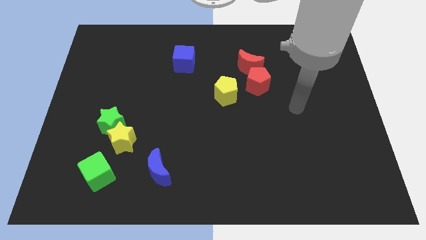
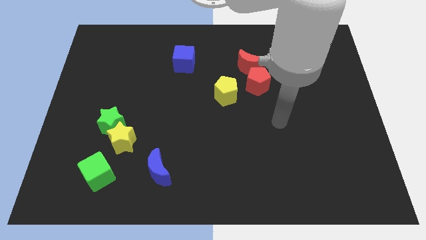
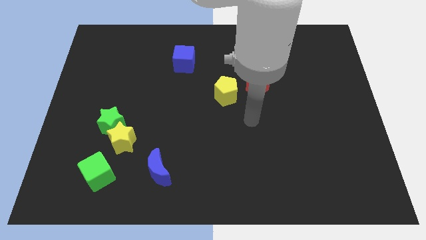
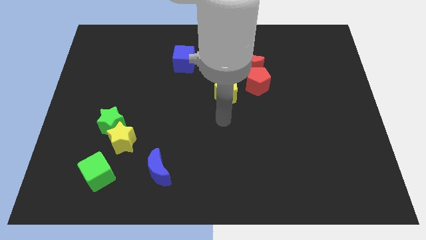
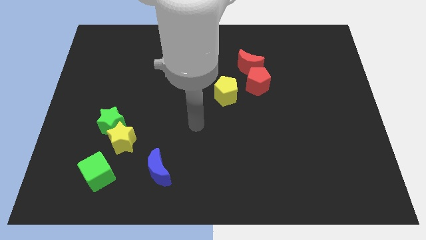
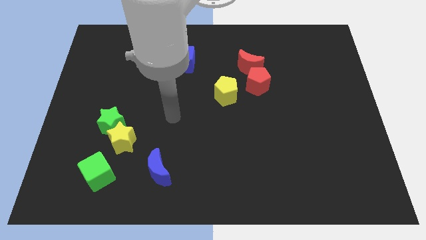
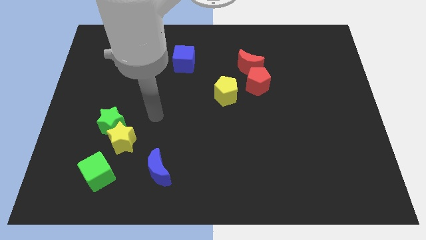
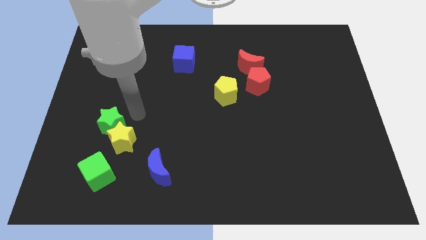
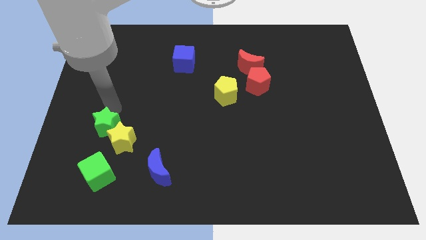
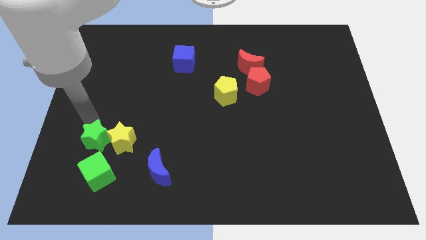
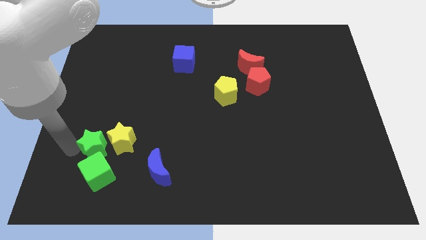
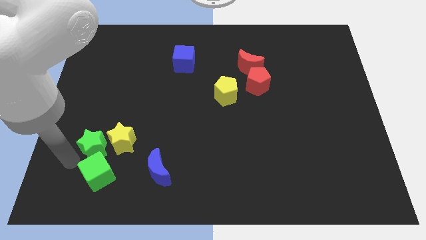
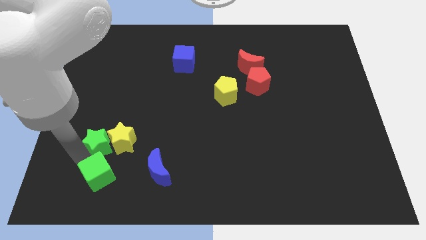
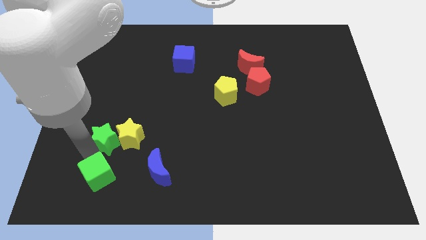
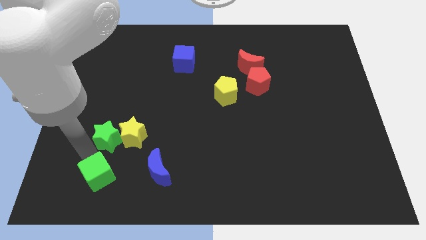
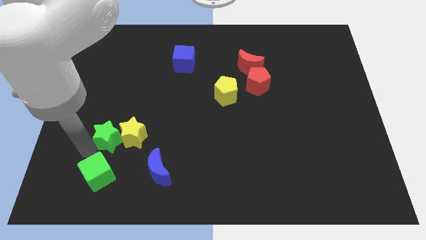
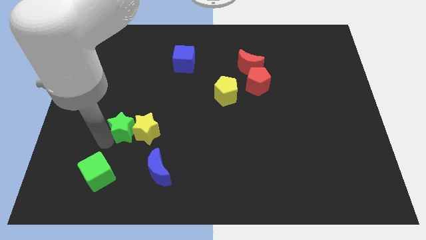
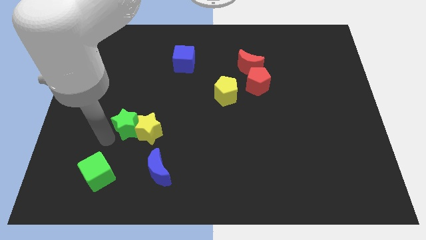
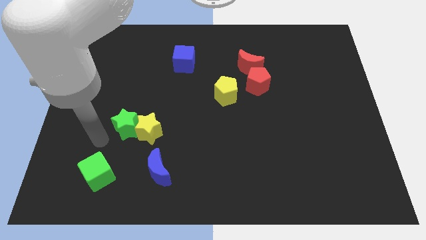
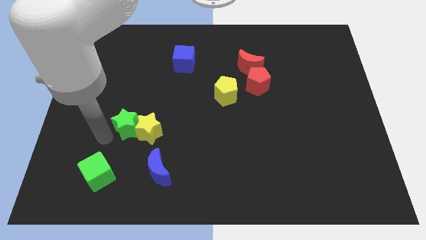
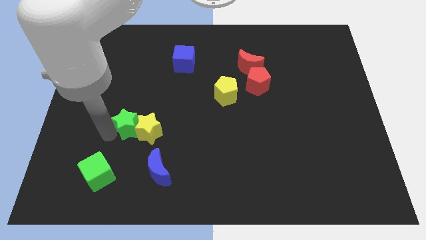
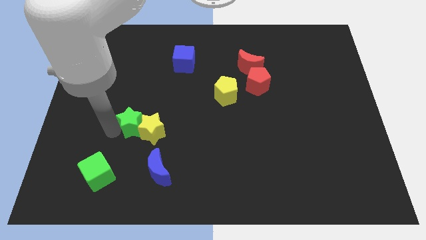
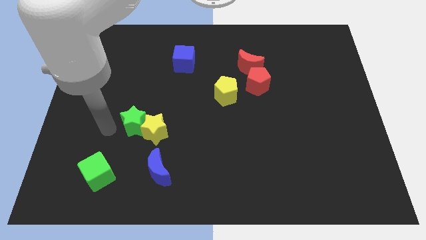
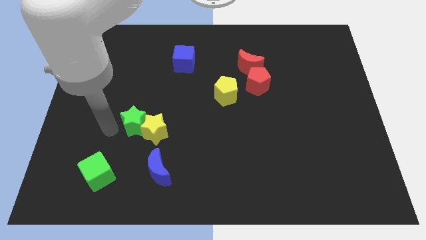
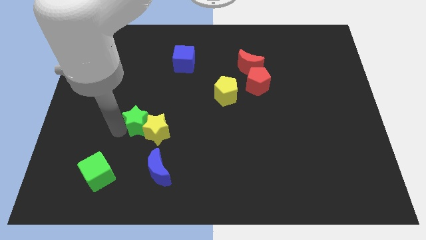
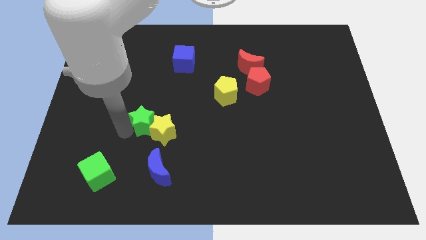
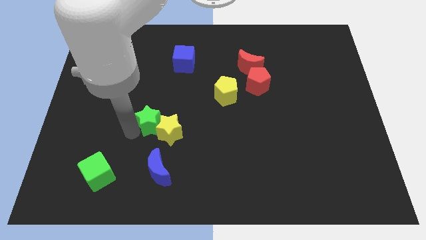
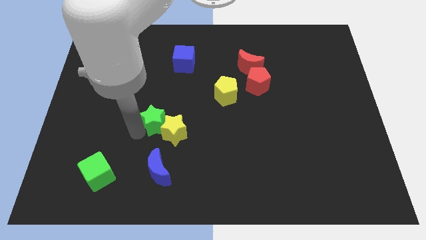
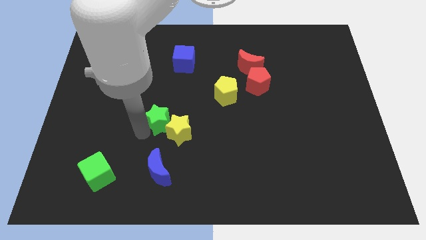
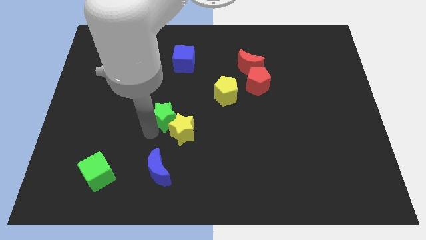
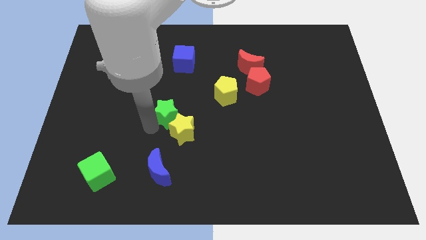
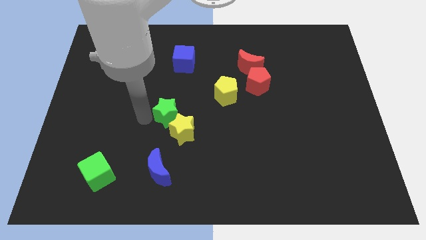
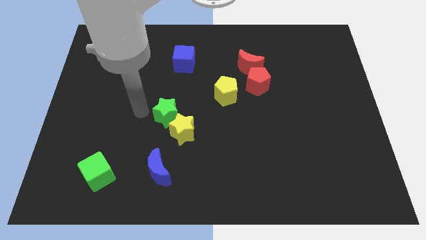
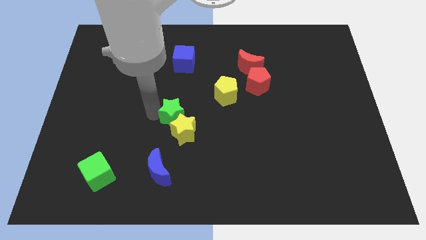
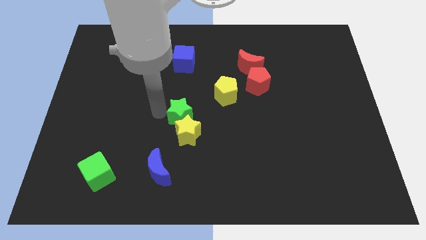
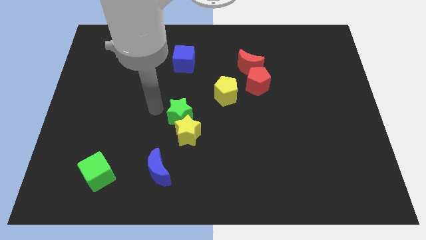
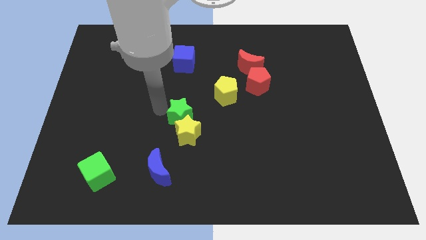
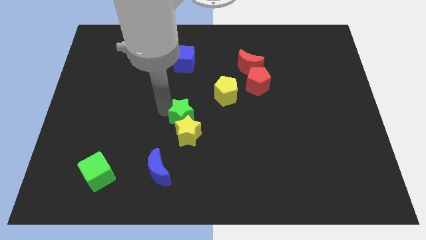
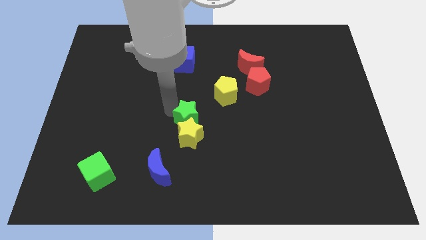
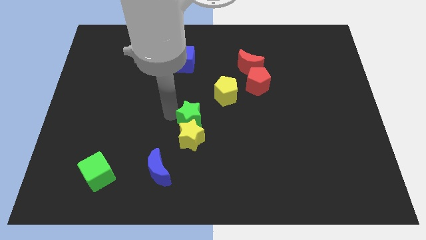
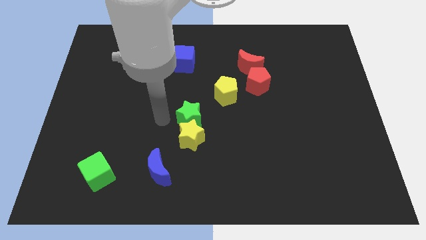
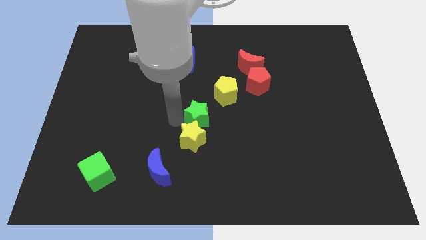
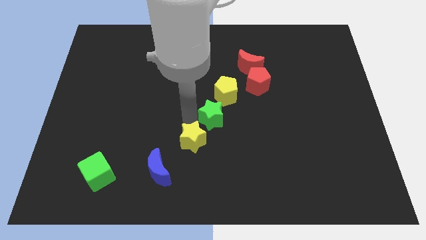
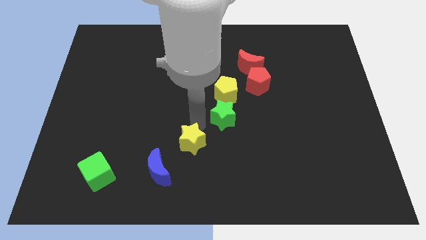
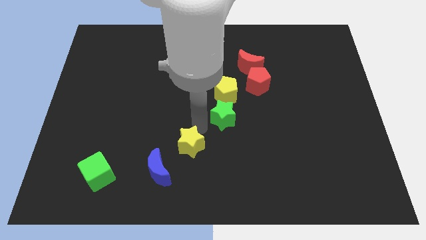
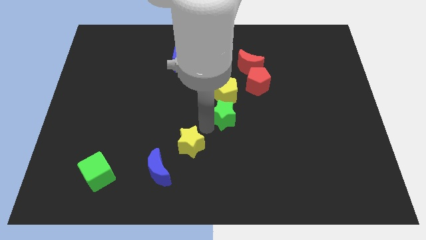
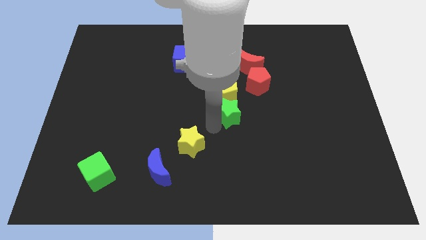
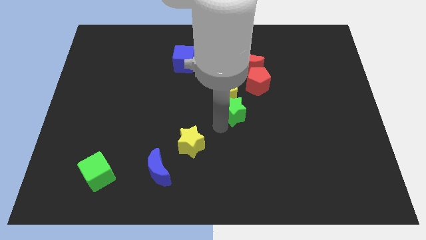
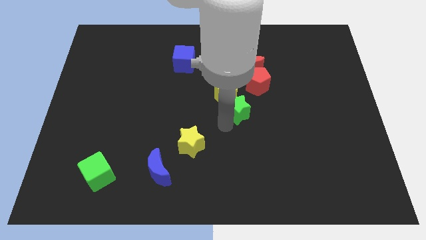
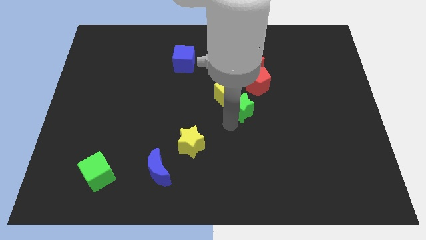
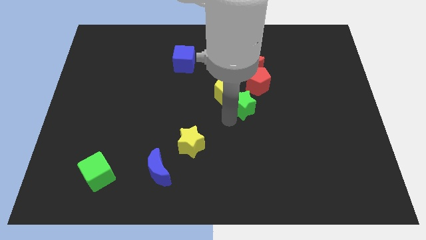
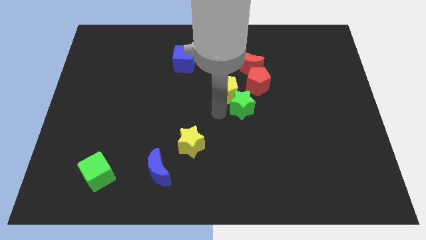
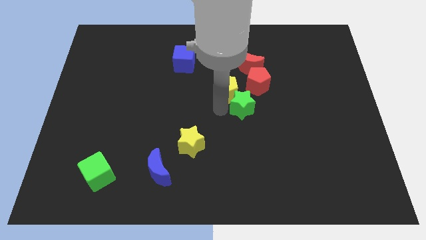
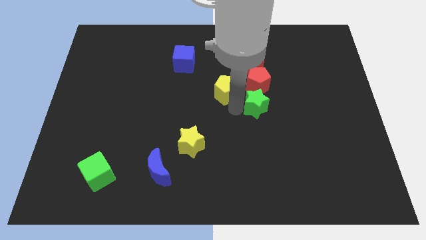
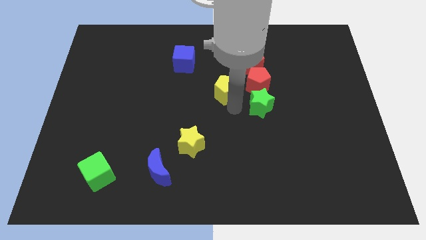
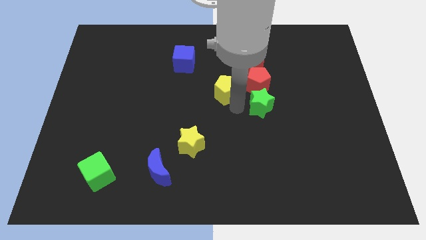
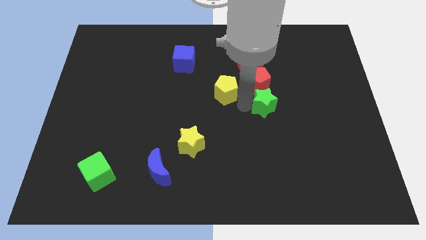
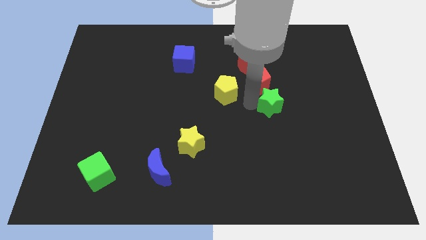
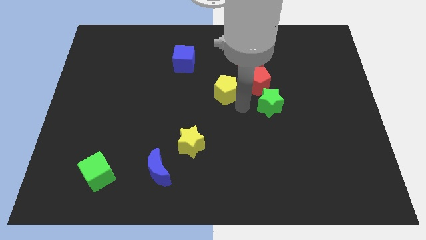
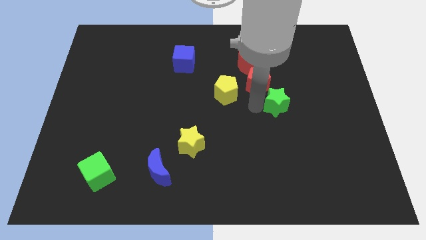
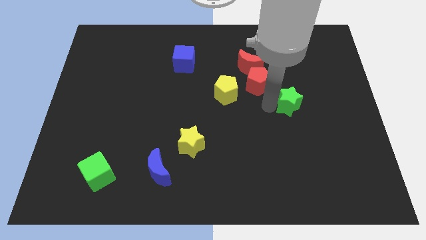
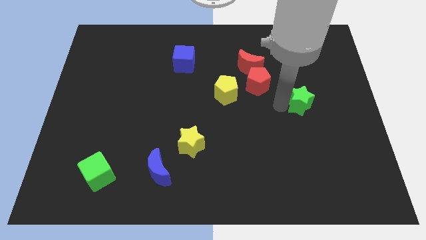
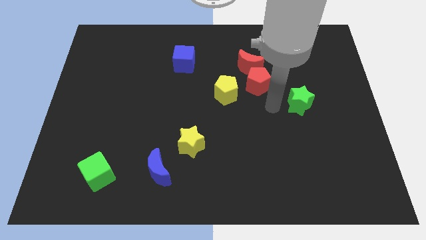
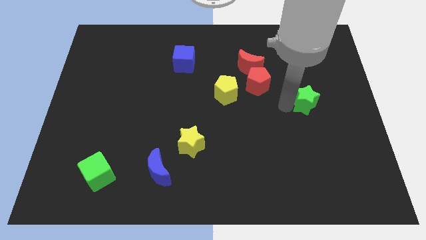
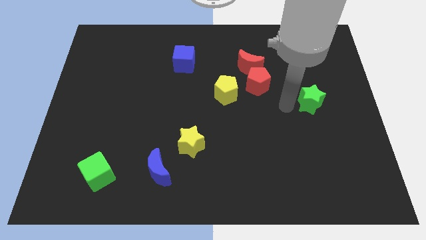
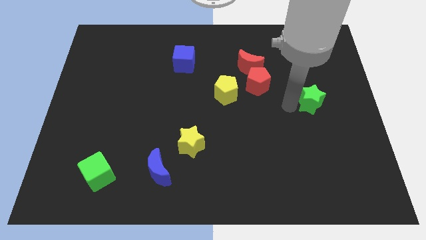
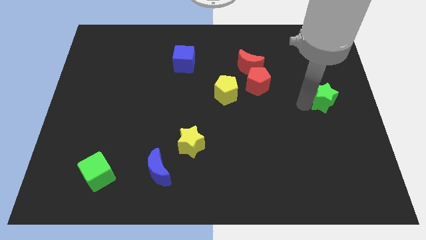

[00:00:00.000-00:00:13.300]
slide the green star to the right side of the board
